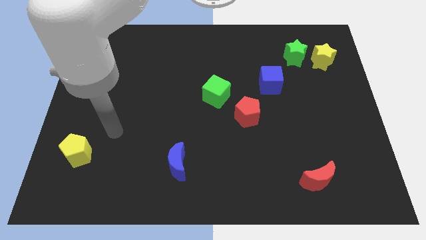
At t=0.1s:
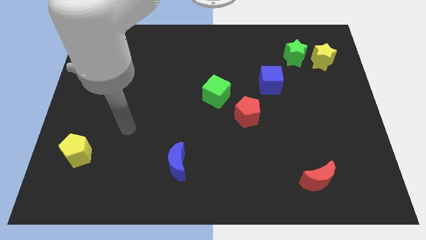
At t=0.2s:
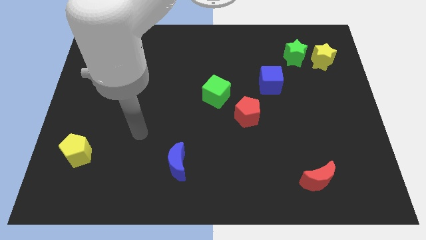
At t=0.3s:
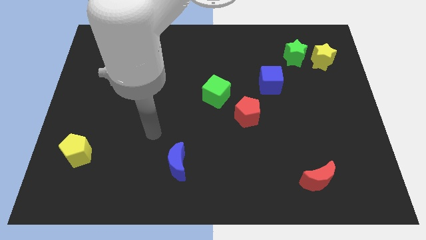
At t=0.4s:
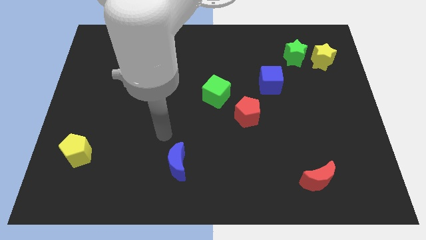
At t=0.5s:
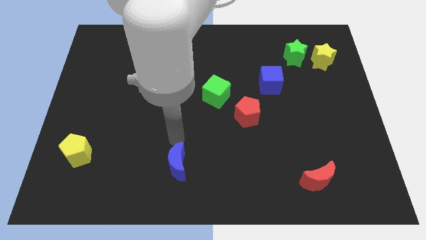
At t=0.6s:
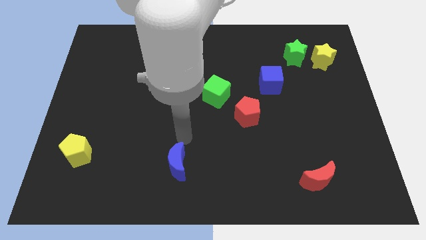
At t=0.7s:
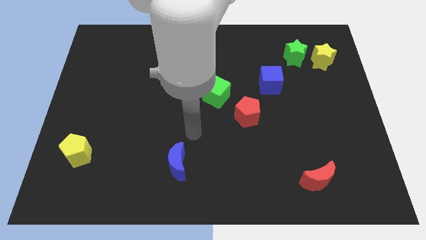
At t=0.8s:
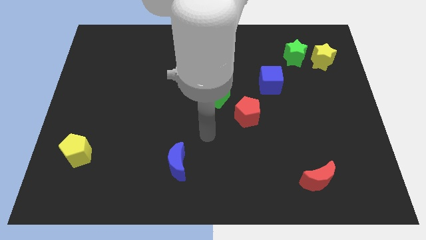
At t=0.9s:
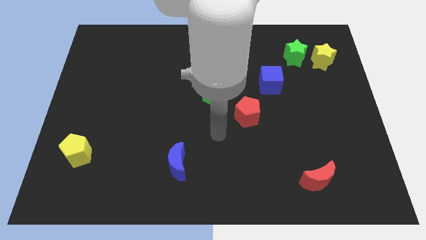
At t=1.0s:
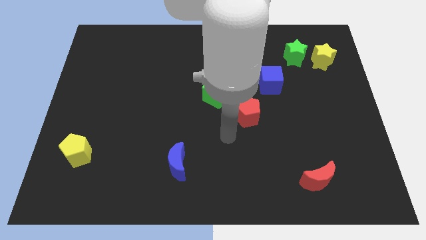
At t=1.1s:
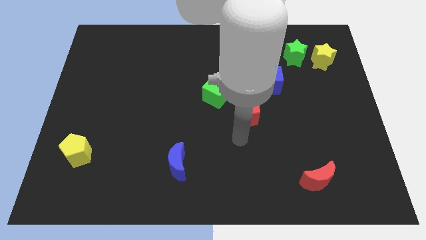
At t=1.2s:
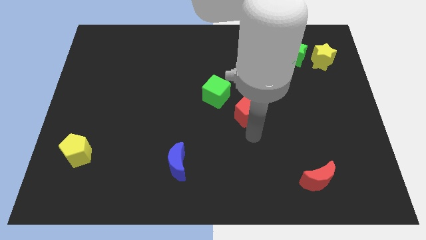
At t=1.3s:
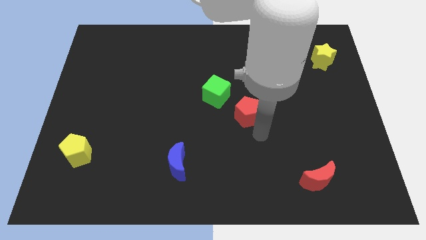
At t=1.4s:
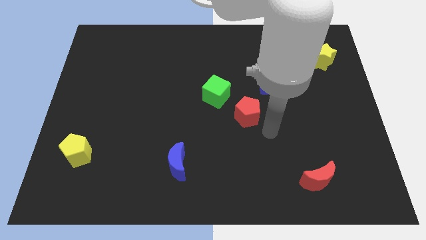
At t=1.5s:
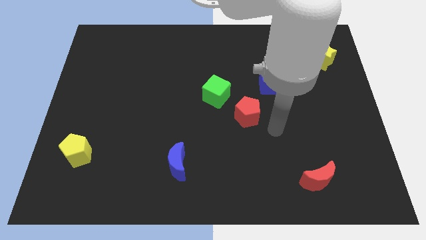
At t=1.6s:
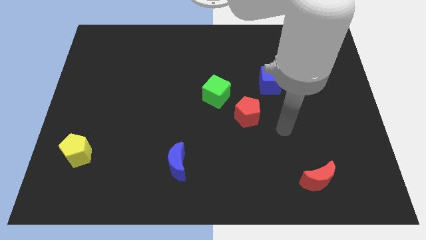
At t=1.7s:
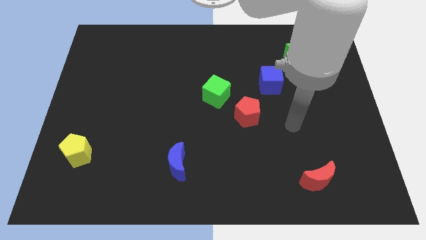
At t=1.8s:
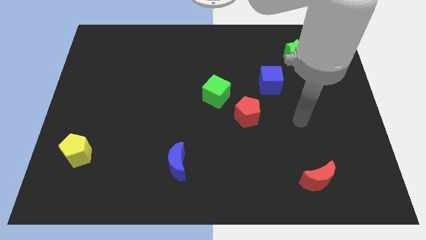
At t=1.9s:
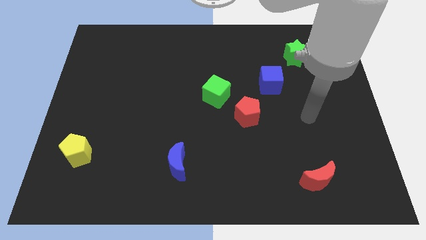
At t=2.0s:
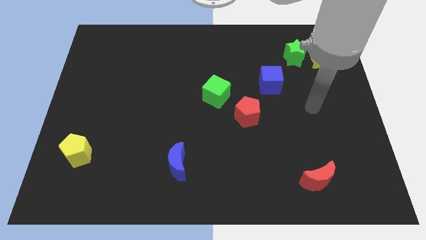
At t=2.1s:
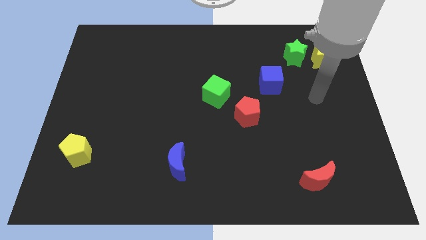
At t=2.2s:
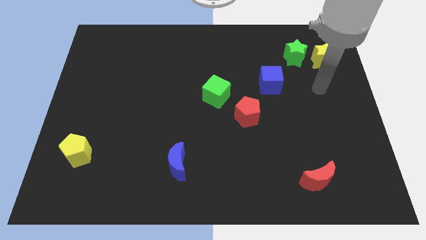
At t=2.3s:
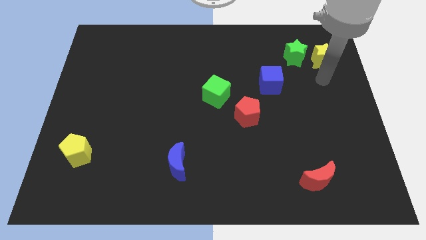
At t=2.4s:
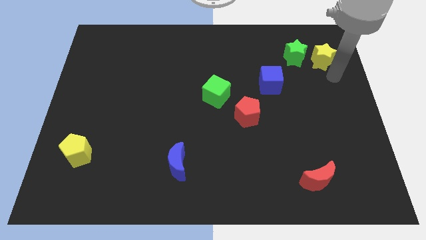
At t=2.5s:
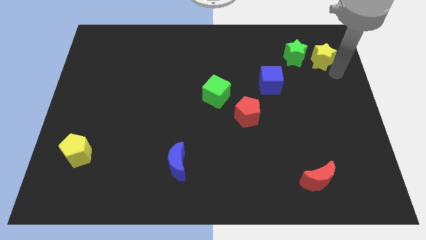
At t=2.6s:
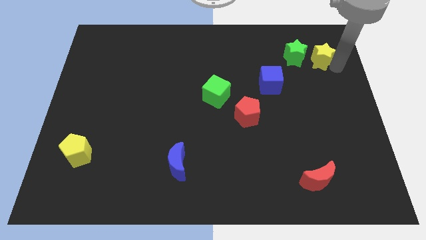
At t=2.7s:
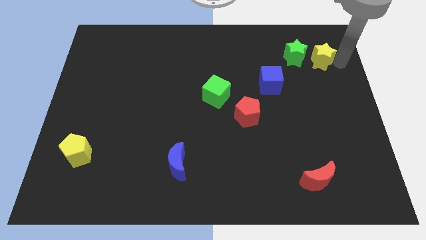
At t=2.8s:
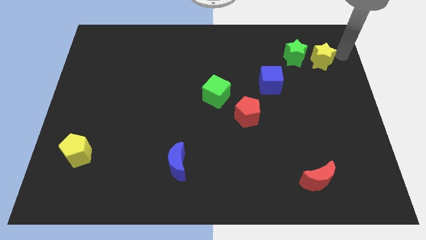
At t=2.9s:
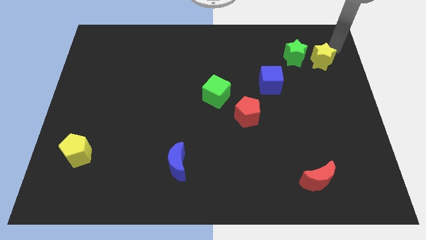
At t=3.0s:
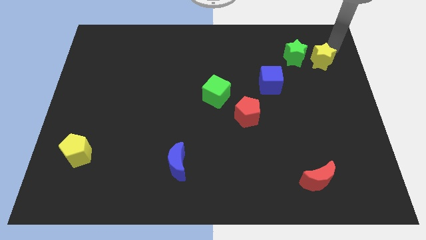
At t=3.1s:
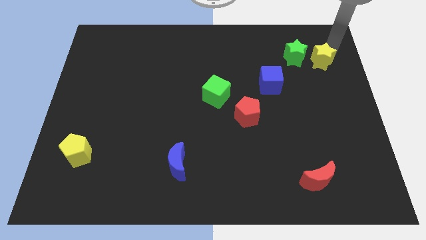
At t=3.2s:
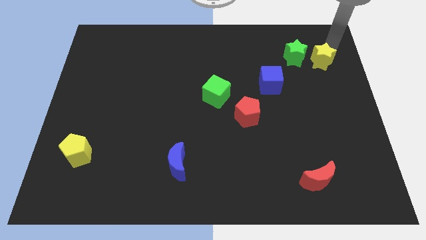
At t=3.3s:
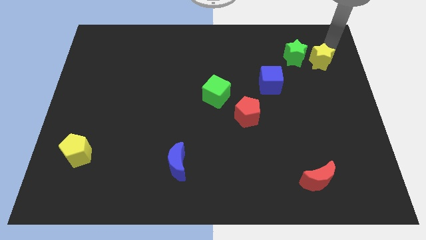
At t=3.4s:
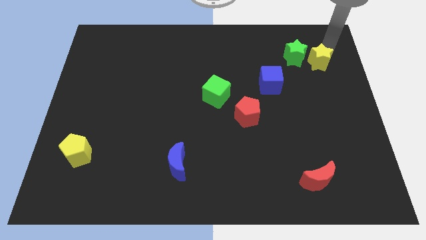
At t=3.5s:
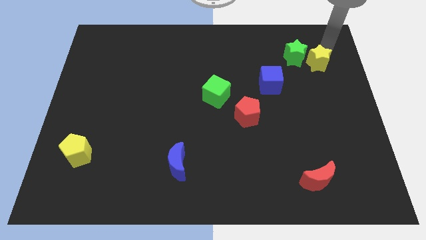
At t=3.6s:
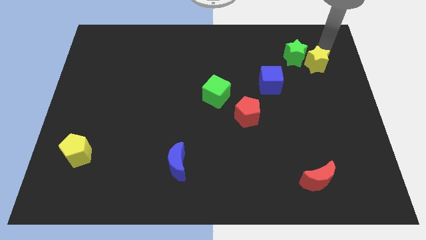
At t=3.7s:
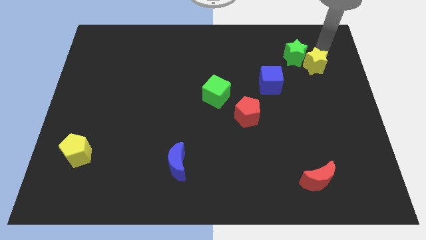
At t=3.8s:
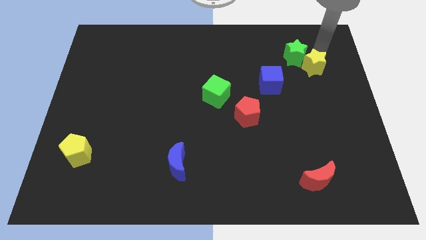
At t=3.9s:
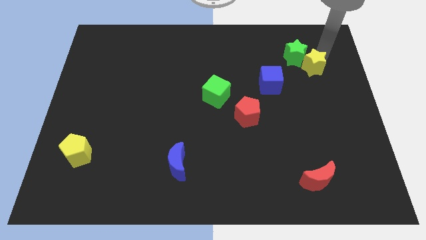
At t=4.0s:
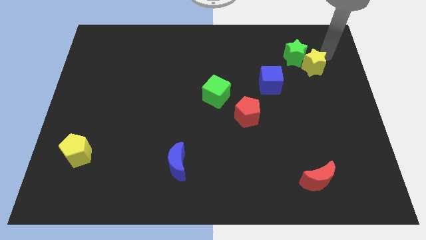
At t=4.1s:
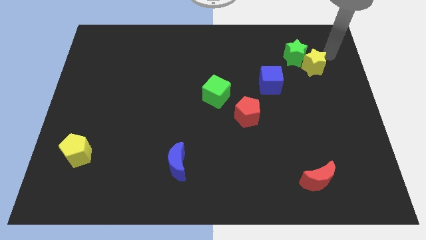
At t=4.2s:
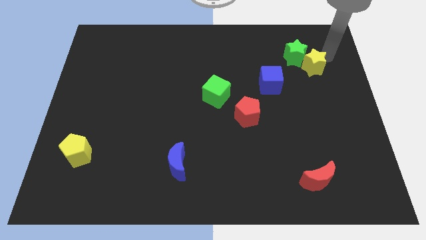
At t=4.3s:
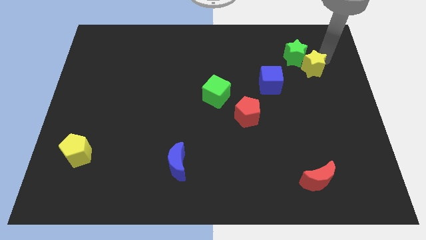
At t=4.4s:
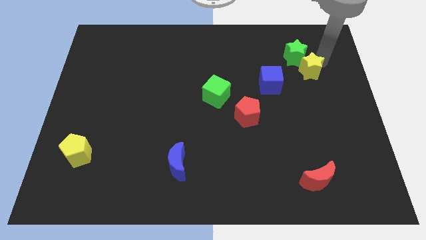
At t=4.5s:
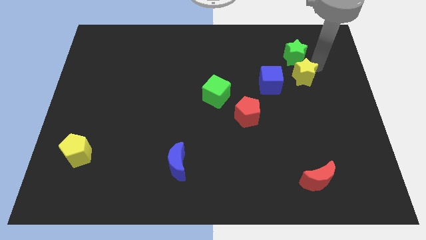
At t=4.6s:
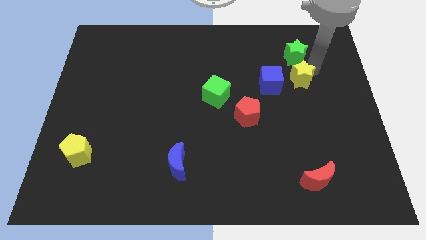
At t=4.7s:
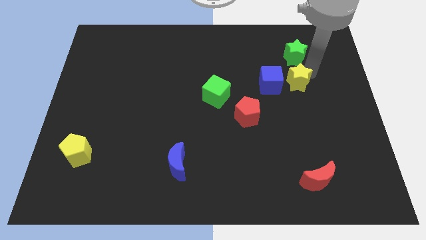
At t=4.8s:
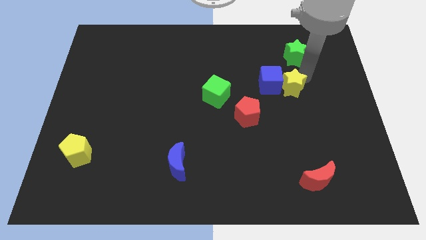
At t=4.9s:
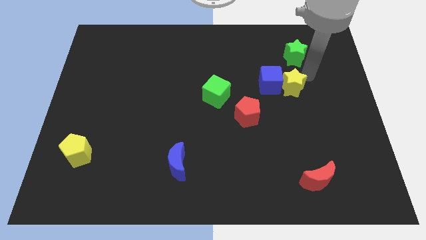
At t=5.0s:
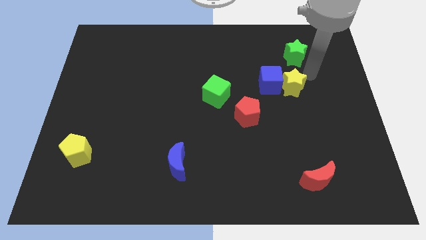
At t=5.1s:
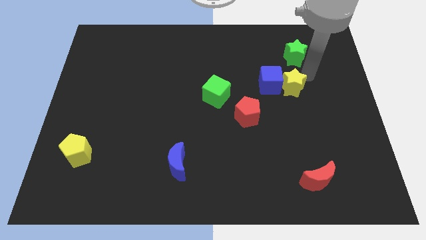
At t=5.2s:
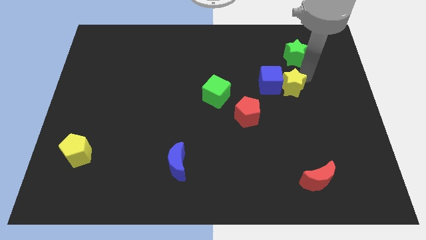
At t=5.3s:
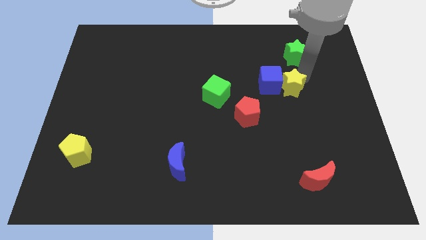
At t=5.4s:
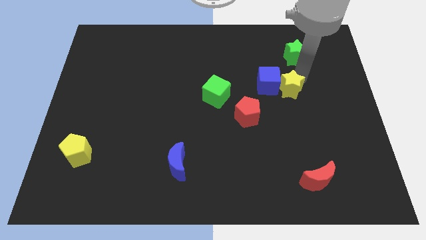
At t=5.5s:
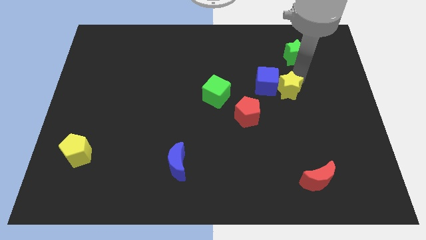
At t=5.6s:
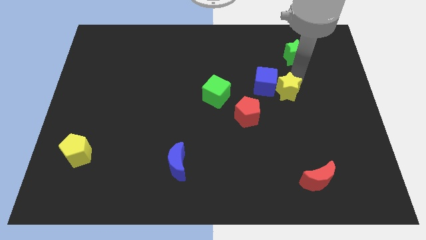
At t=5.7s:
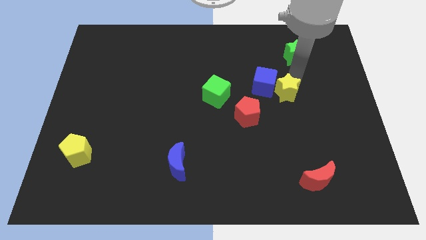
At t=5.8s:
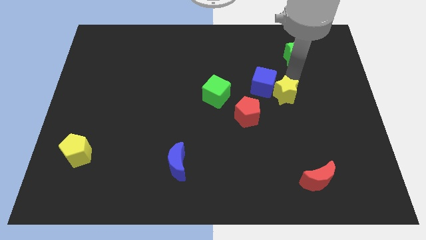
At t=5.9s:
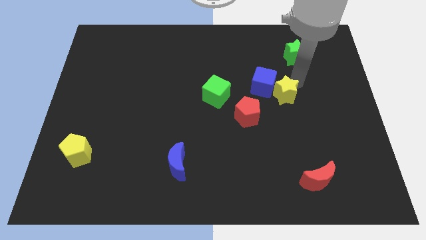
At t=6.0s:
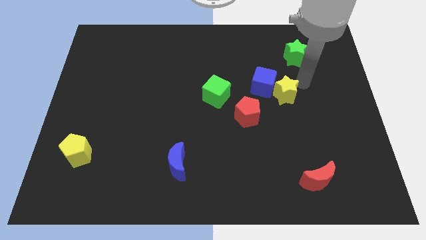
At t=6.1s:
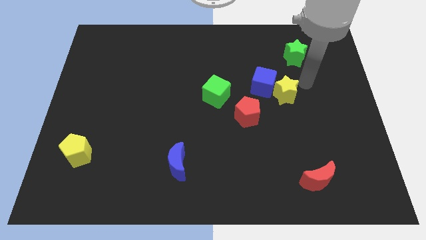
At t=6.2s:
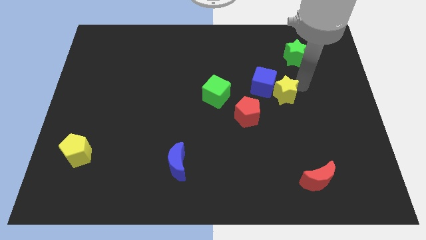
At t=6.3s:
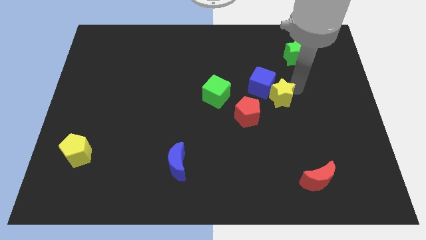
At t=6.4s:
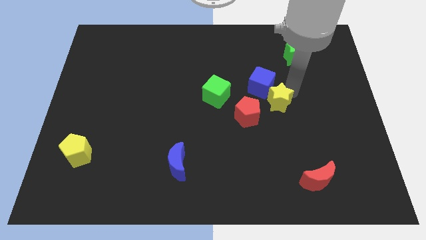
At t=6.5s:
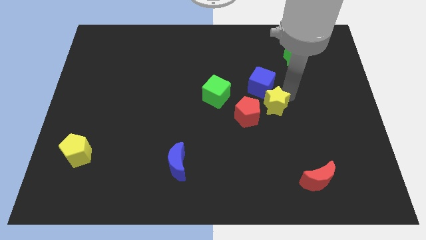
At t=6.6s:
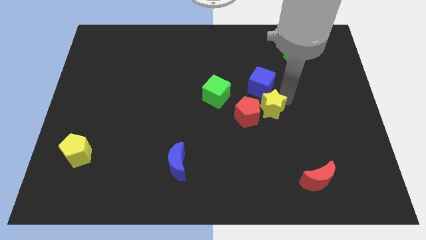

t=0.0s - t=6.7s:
move the yellow star to the red pentagon

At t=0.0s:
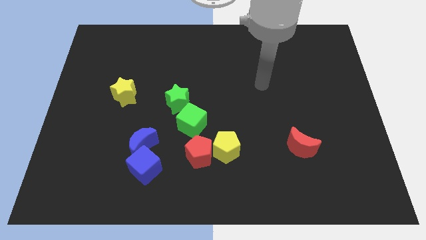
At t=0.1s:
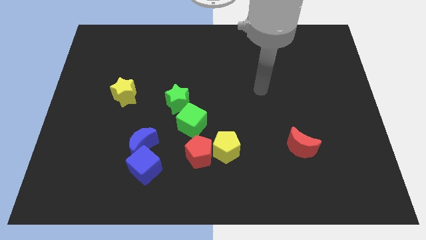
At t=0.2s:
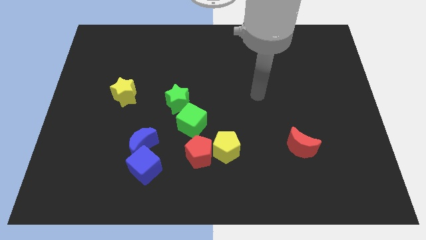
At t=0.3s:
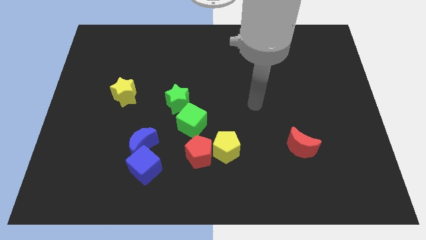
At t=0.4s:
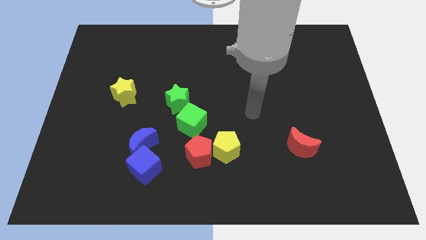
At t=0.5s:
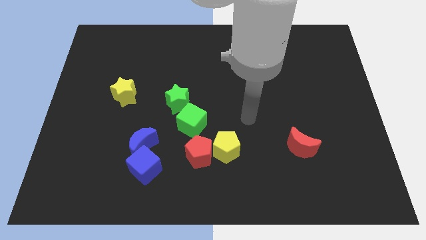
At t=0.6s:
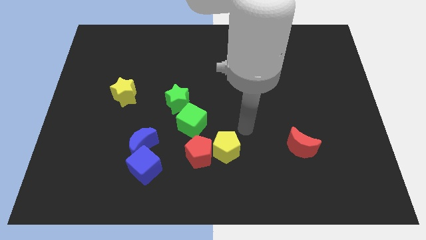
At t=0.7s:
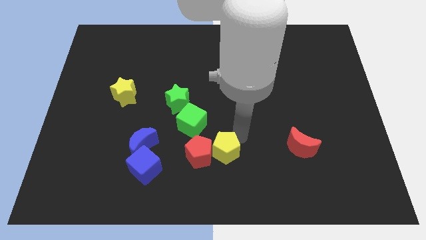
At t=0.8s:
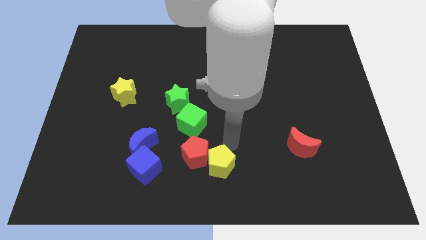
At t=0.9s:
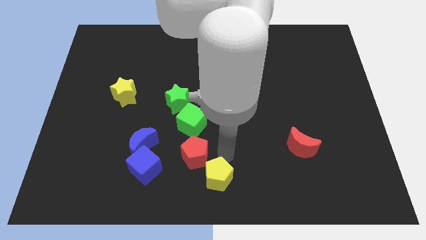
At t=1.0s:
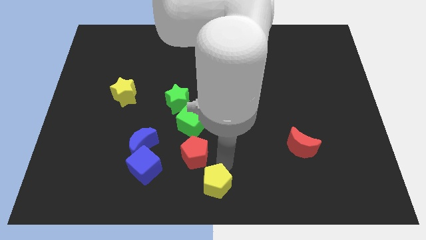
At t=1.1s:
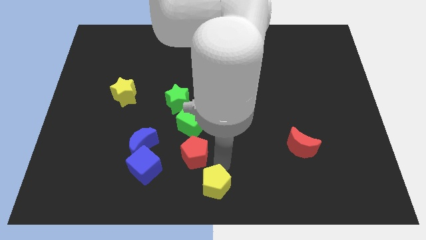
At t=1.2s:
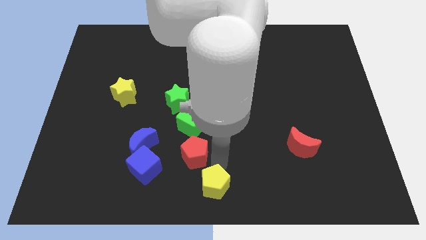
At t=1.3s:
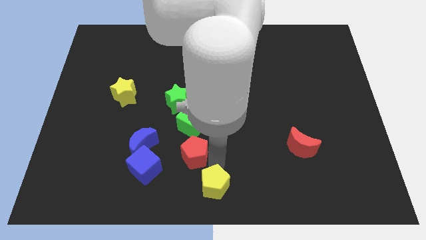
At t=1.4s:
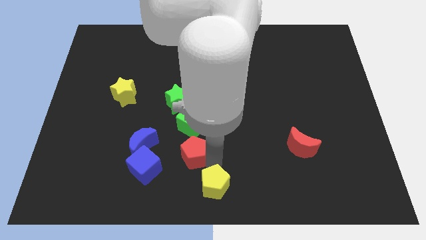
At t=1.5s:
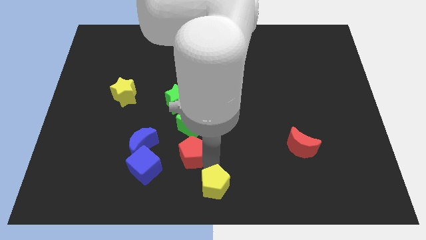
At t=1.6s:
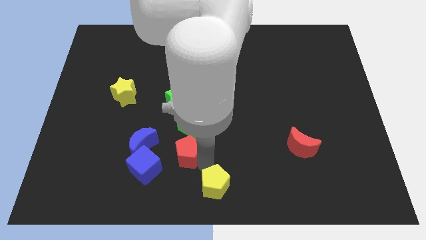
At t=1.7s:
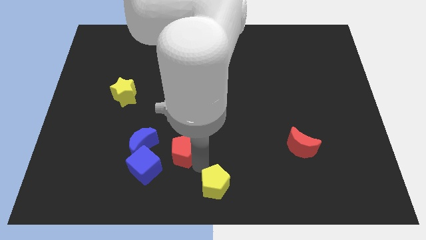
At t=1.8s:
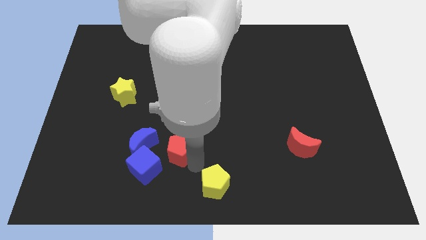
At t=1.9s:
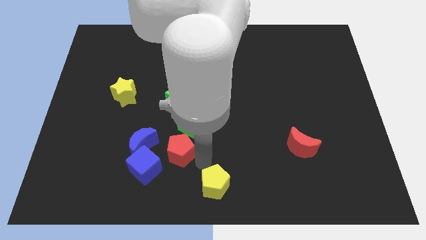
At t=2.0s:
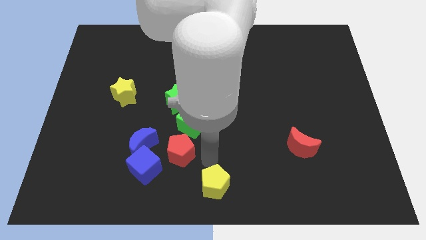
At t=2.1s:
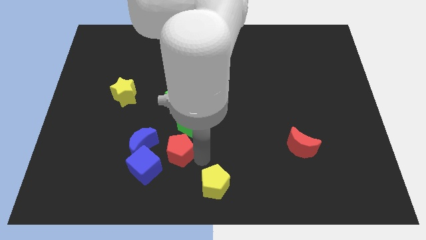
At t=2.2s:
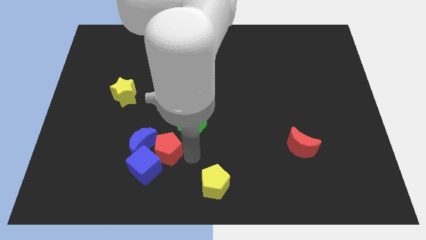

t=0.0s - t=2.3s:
put the red pentagon next to the blue moon
